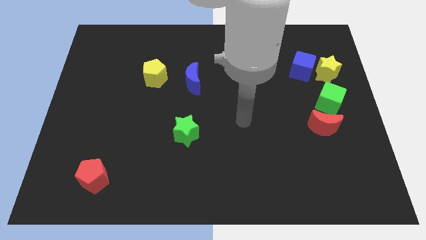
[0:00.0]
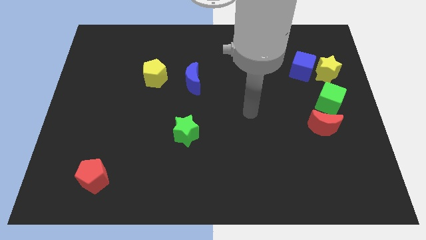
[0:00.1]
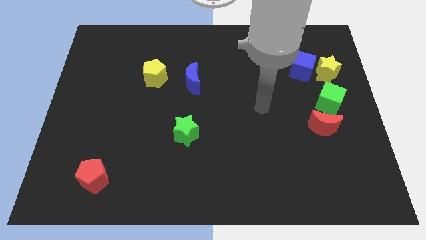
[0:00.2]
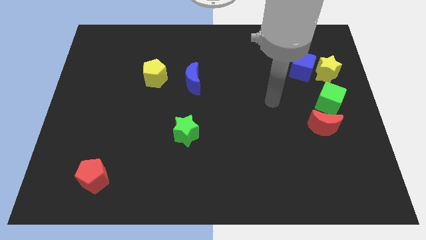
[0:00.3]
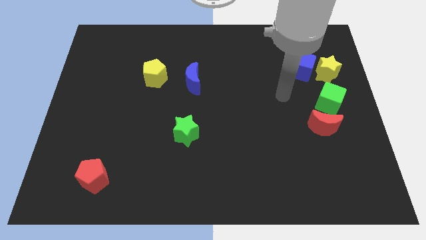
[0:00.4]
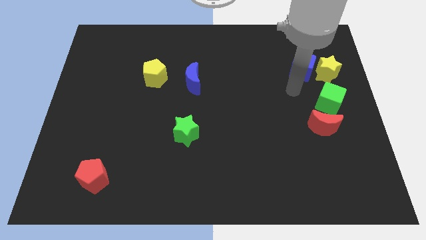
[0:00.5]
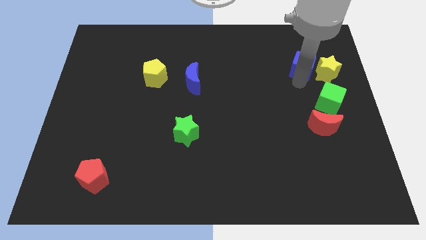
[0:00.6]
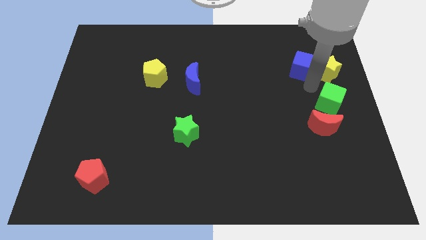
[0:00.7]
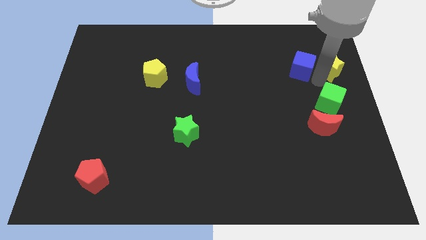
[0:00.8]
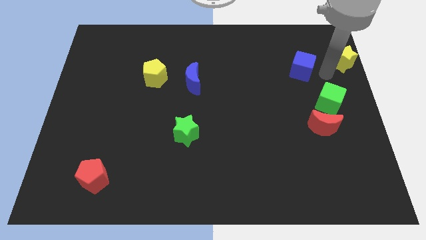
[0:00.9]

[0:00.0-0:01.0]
separate the blue cube from the yellow star

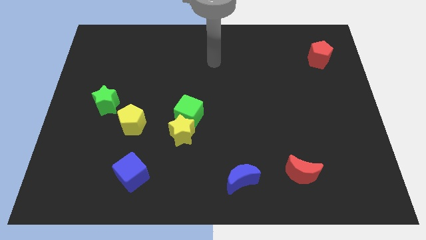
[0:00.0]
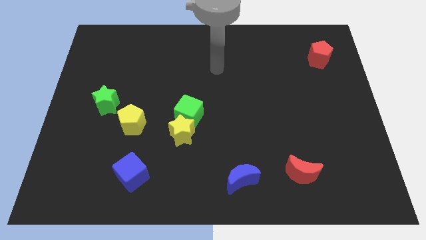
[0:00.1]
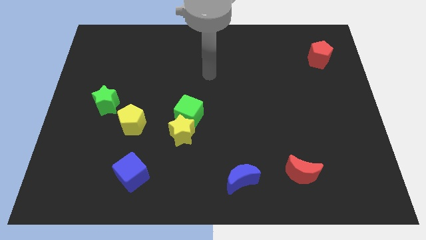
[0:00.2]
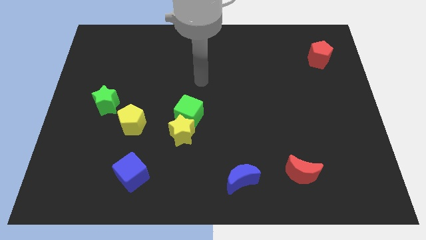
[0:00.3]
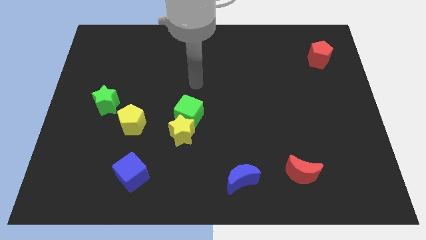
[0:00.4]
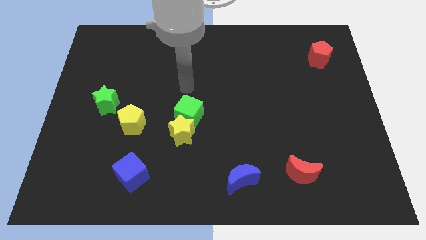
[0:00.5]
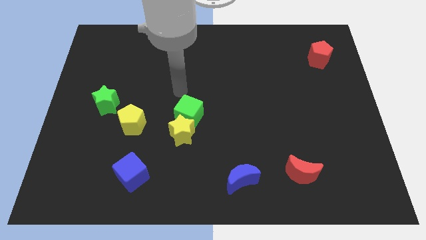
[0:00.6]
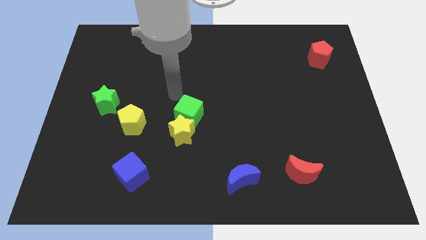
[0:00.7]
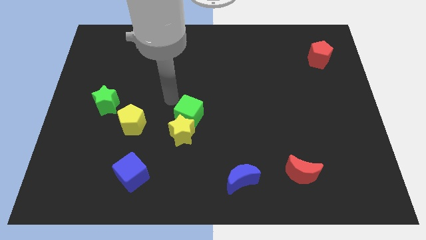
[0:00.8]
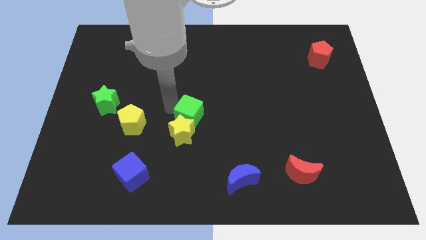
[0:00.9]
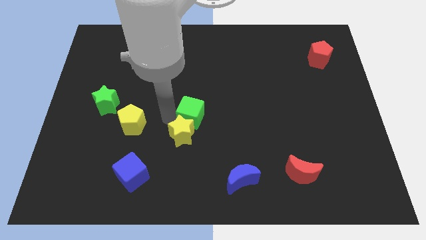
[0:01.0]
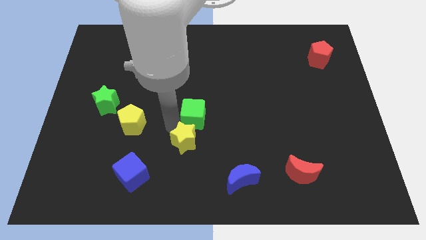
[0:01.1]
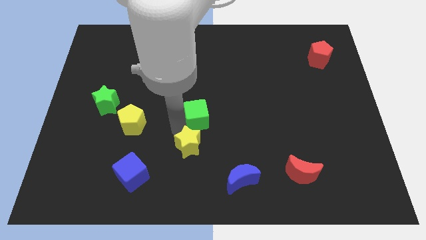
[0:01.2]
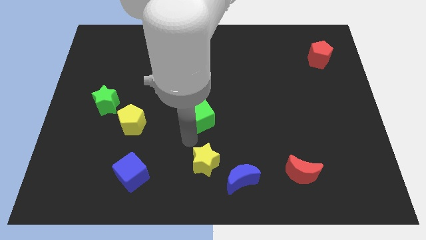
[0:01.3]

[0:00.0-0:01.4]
pull the green cube apart from the yellow star

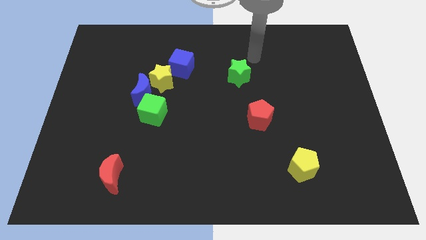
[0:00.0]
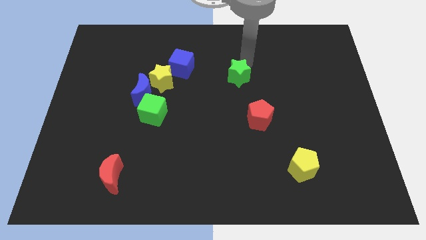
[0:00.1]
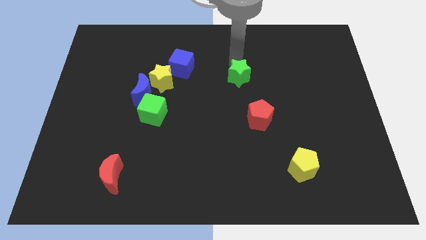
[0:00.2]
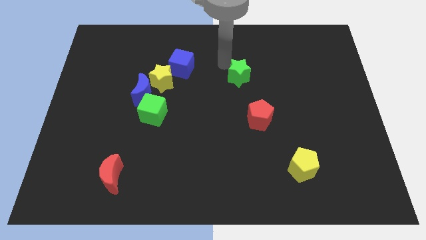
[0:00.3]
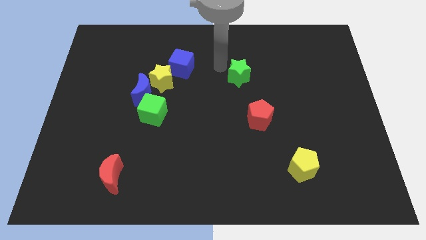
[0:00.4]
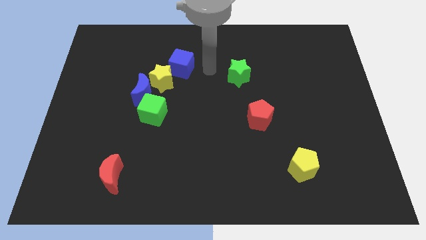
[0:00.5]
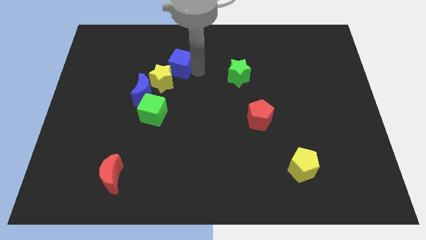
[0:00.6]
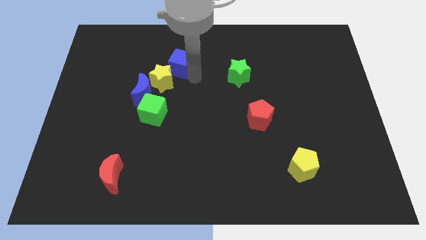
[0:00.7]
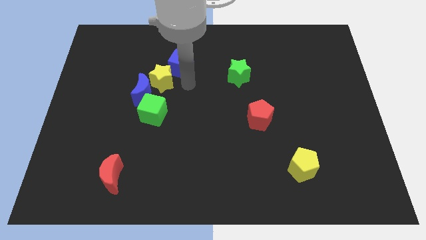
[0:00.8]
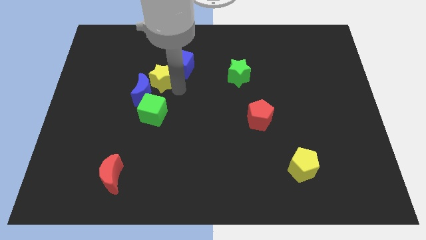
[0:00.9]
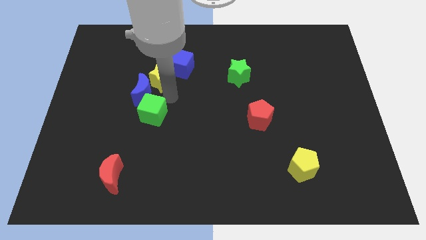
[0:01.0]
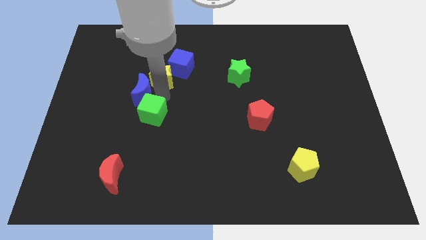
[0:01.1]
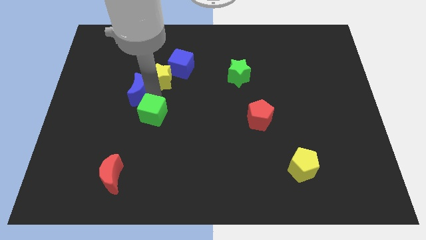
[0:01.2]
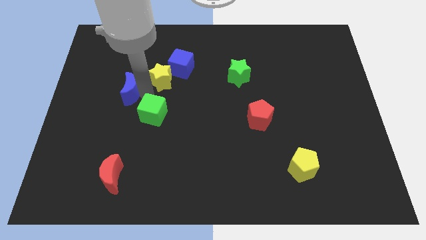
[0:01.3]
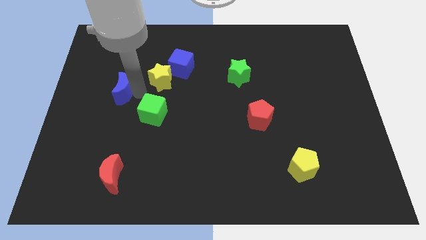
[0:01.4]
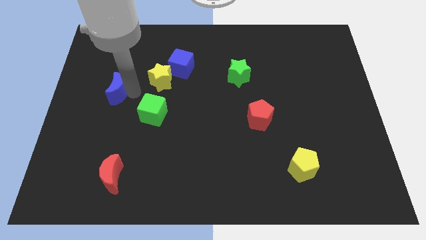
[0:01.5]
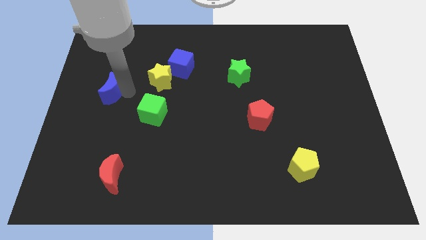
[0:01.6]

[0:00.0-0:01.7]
separate the blue moon from the yellow star and green cube

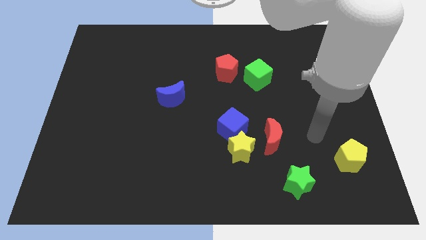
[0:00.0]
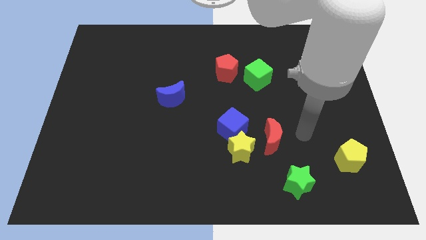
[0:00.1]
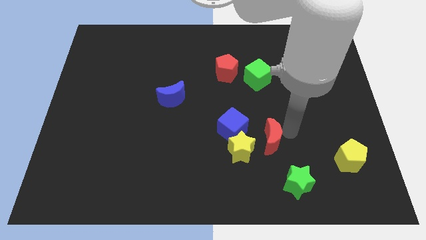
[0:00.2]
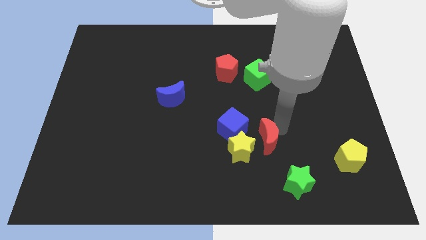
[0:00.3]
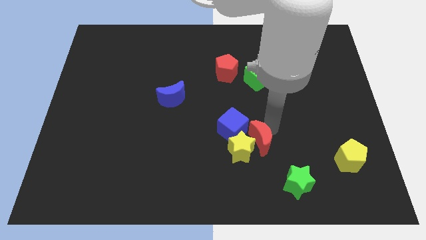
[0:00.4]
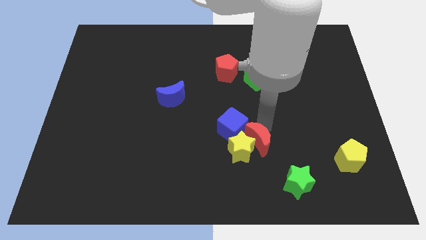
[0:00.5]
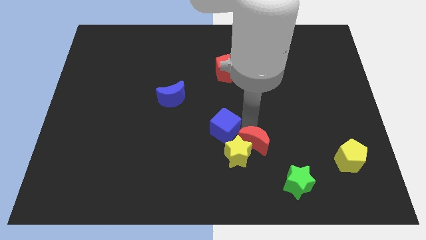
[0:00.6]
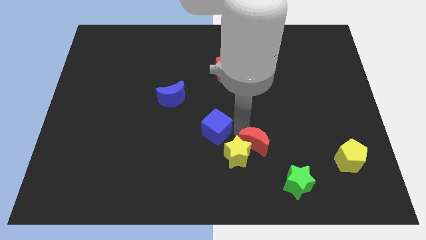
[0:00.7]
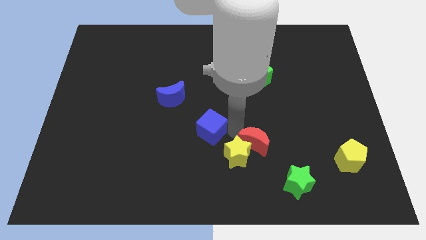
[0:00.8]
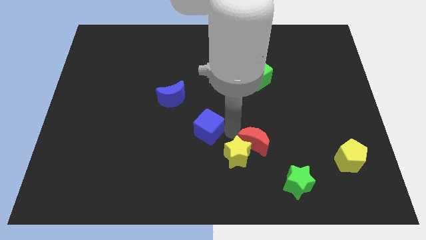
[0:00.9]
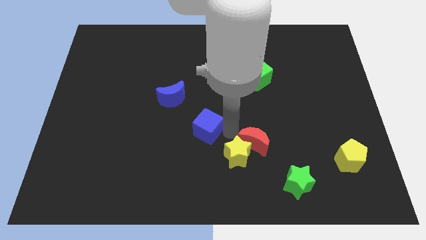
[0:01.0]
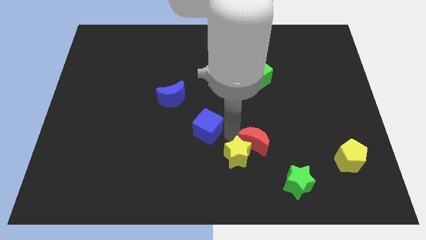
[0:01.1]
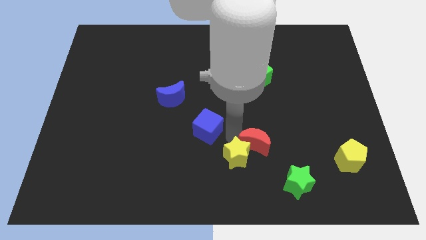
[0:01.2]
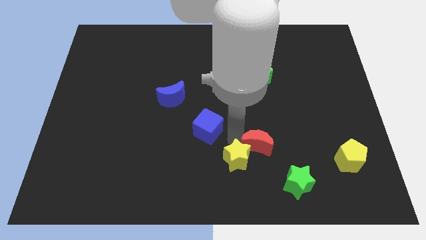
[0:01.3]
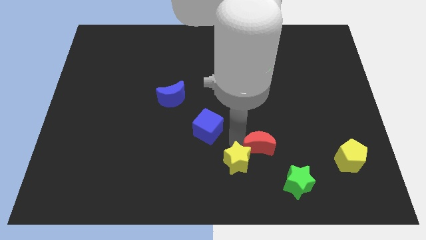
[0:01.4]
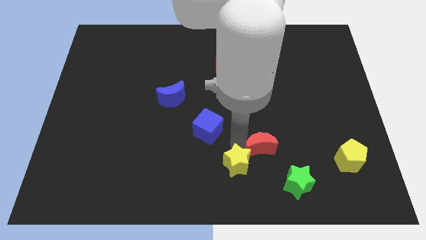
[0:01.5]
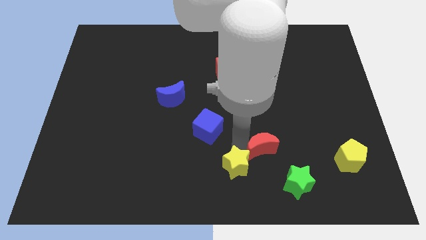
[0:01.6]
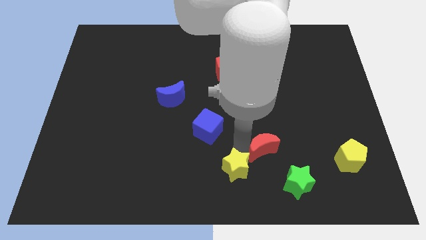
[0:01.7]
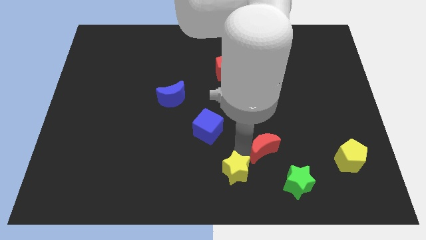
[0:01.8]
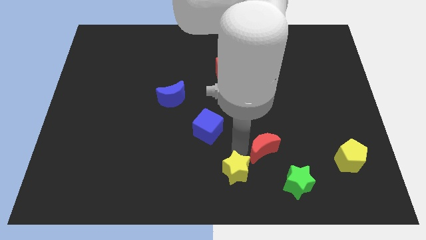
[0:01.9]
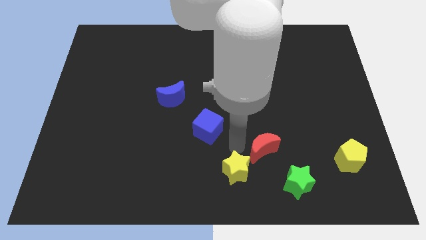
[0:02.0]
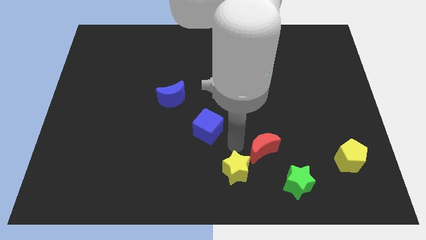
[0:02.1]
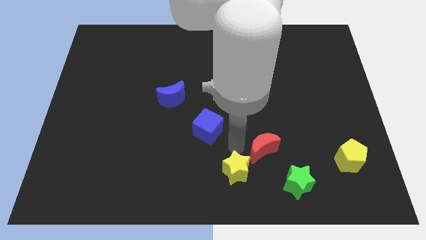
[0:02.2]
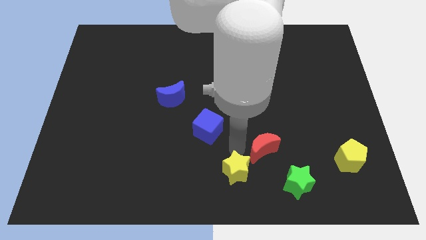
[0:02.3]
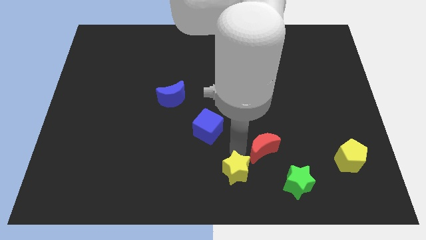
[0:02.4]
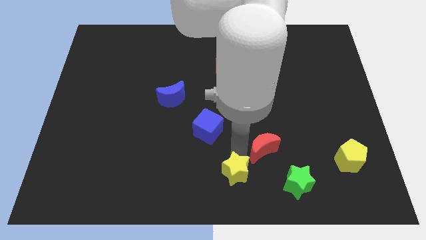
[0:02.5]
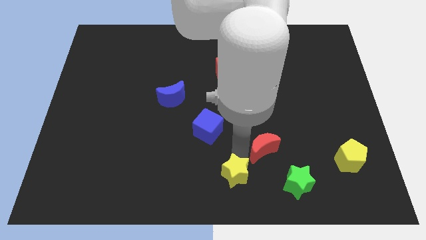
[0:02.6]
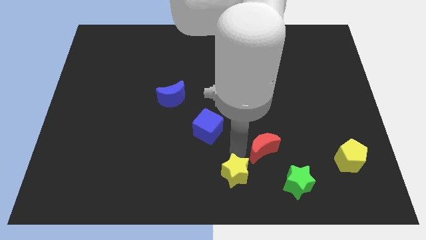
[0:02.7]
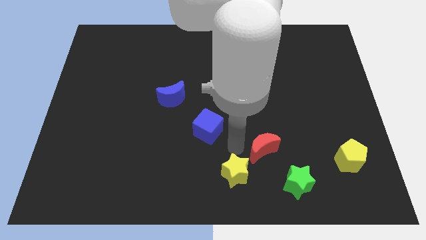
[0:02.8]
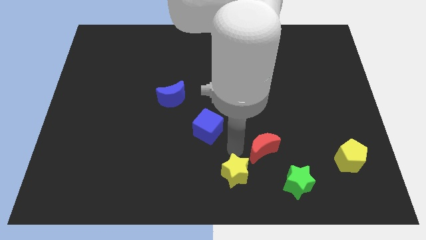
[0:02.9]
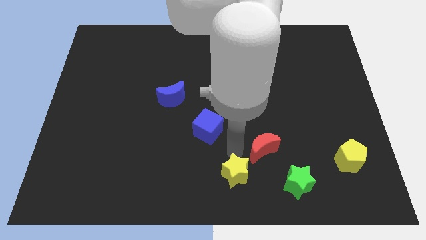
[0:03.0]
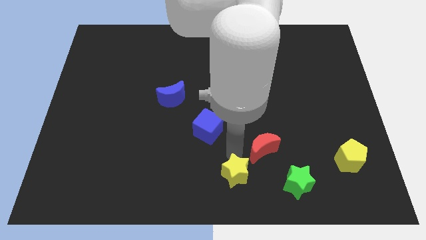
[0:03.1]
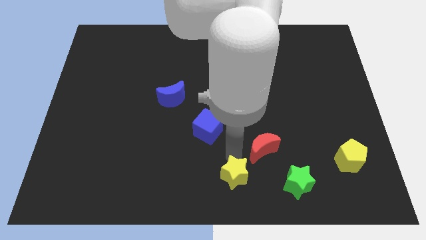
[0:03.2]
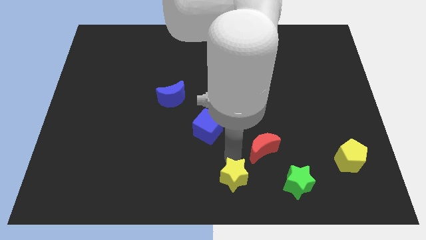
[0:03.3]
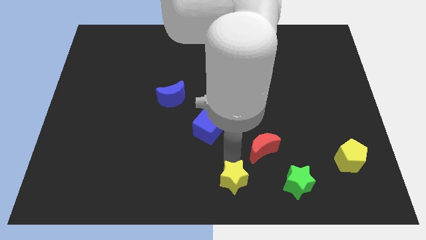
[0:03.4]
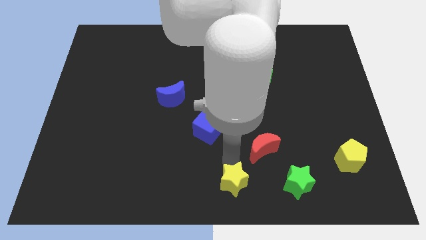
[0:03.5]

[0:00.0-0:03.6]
separate the yellow star from the blue cube and red moon

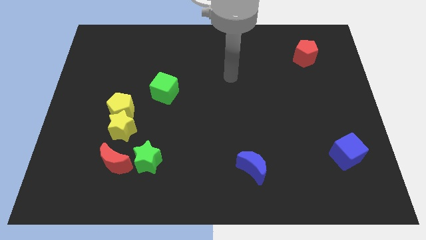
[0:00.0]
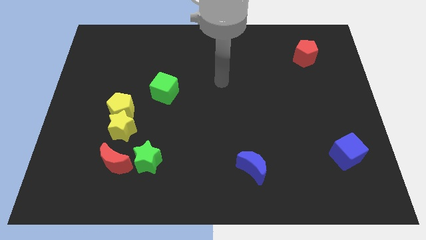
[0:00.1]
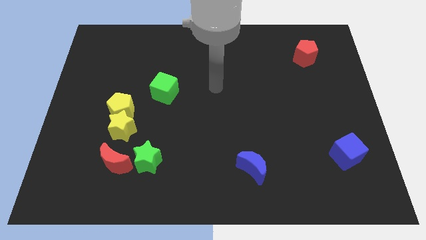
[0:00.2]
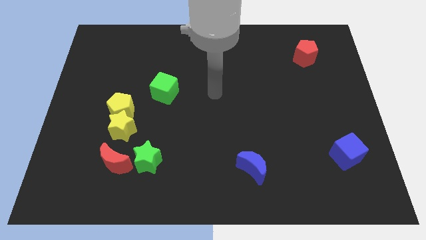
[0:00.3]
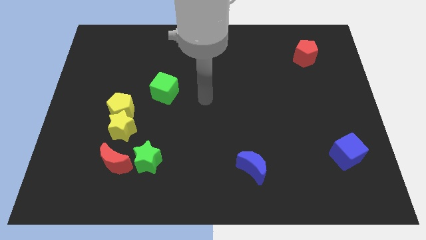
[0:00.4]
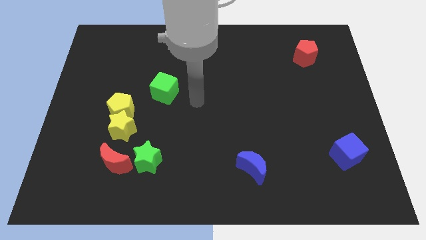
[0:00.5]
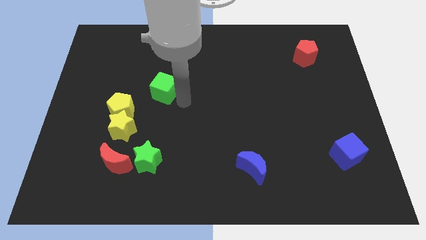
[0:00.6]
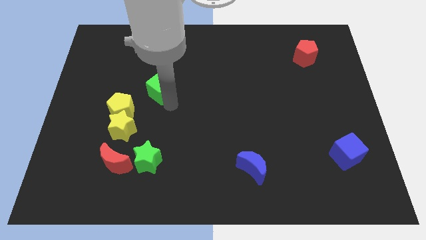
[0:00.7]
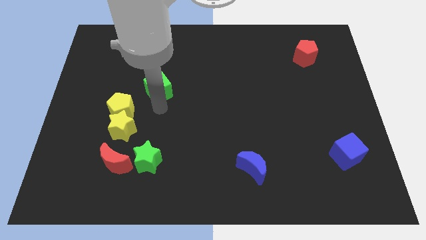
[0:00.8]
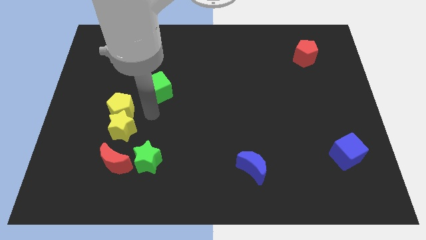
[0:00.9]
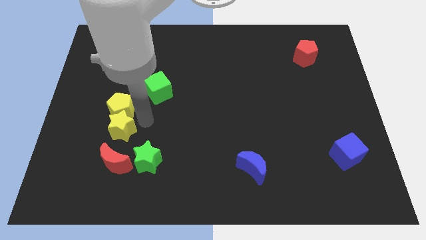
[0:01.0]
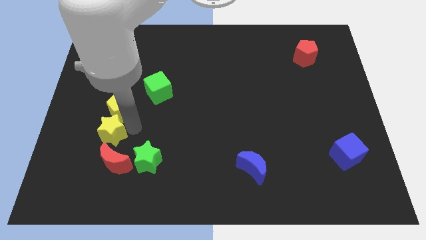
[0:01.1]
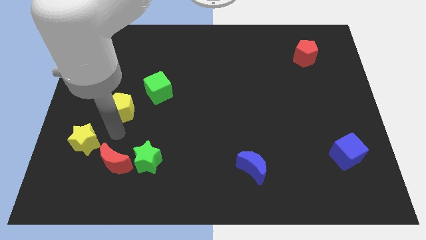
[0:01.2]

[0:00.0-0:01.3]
separate the yellow pentagon from the yellow star

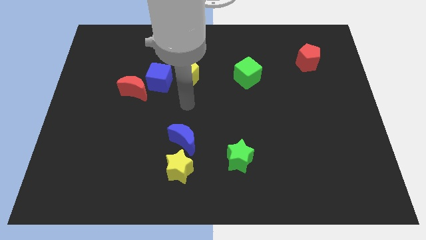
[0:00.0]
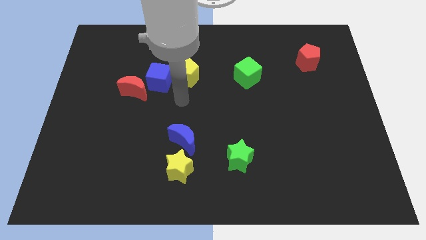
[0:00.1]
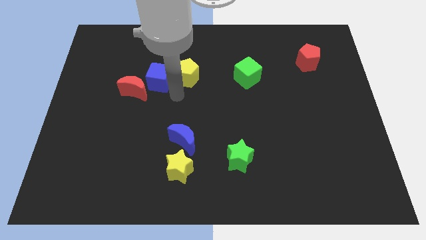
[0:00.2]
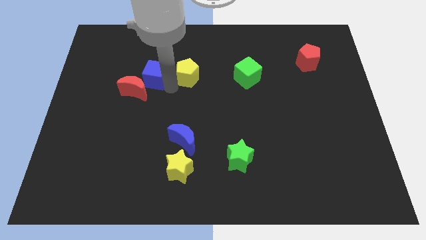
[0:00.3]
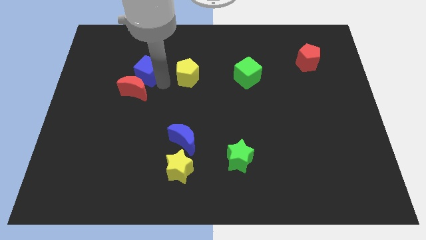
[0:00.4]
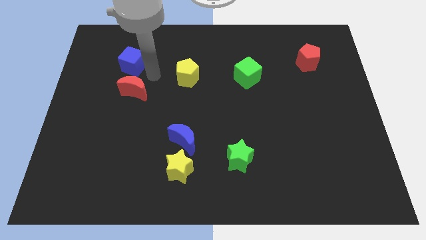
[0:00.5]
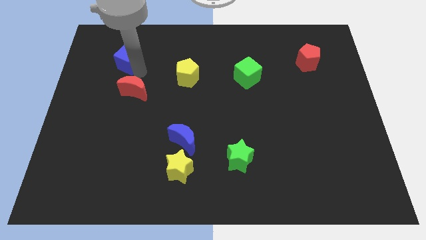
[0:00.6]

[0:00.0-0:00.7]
pull the red moon apart from the blue cube
